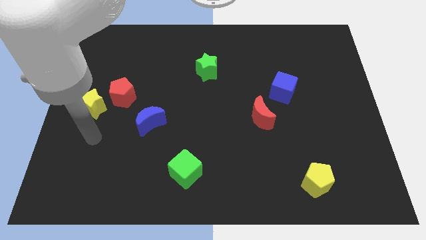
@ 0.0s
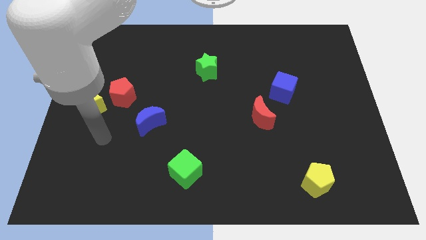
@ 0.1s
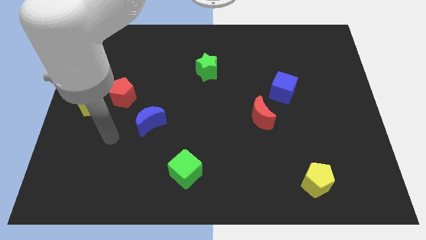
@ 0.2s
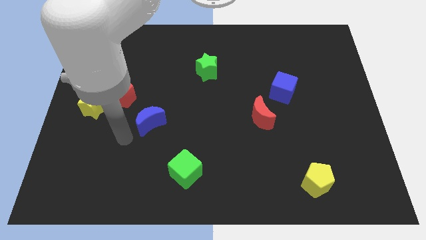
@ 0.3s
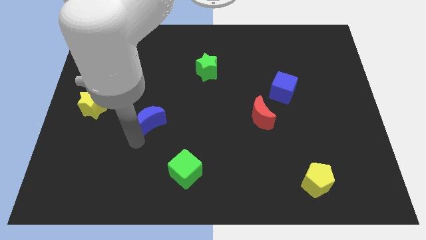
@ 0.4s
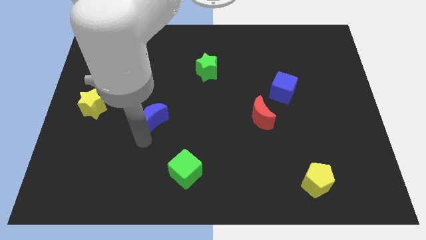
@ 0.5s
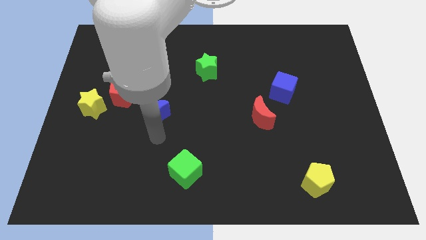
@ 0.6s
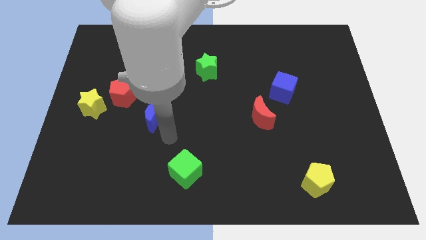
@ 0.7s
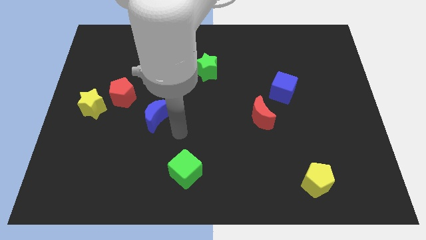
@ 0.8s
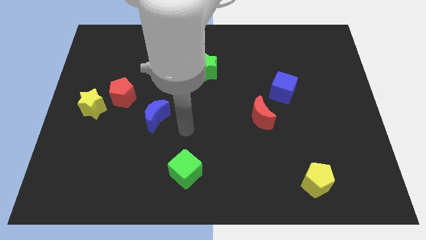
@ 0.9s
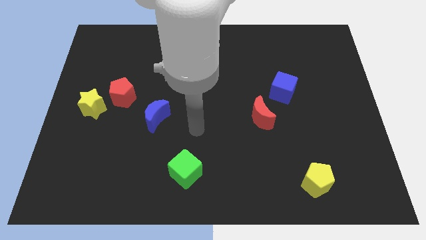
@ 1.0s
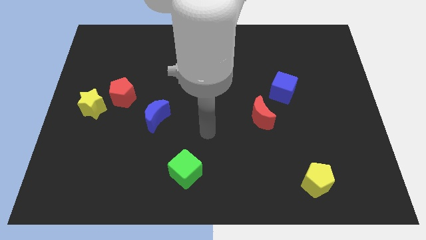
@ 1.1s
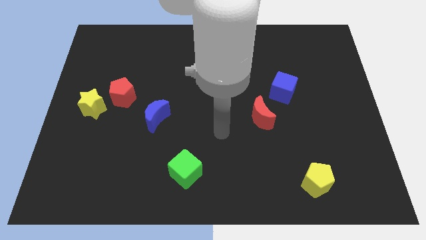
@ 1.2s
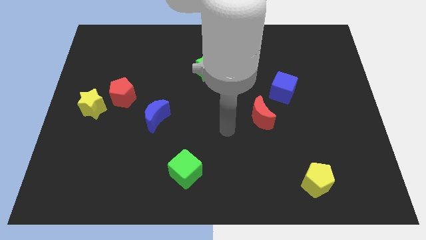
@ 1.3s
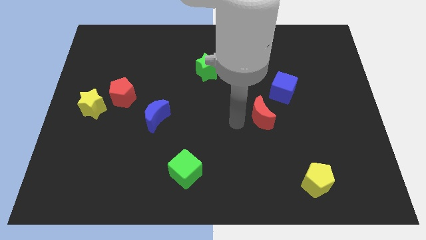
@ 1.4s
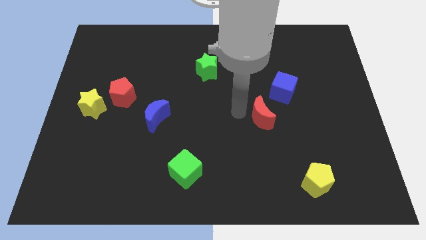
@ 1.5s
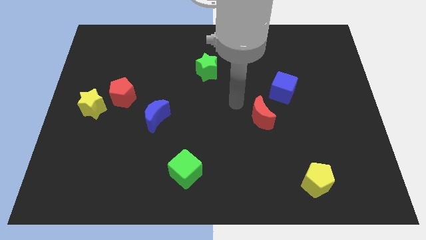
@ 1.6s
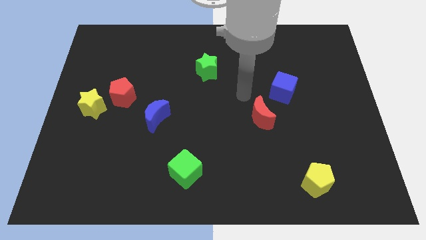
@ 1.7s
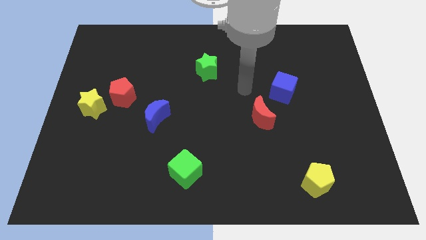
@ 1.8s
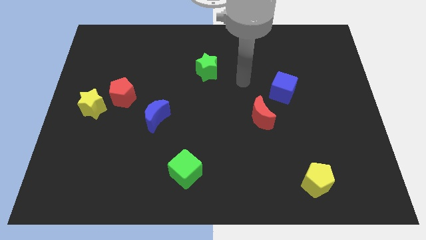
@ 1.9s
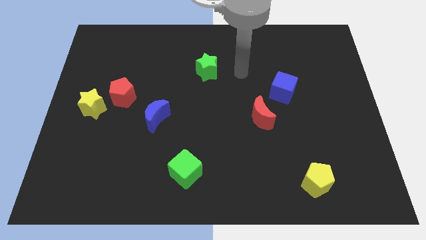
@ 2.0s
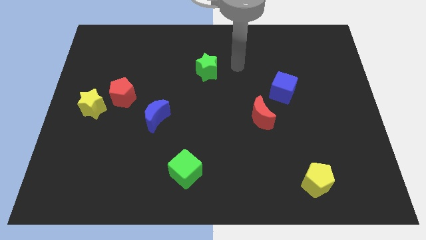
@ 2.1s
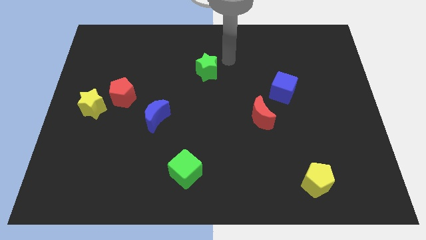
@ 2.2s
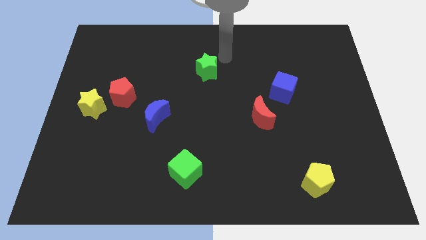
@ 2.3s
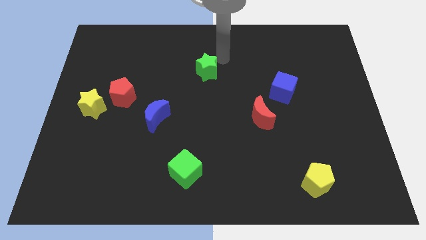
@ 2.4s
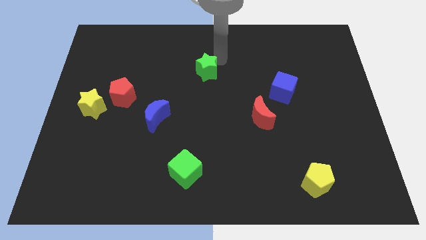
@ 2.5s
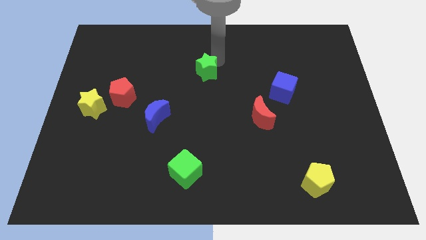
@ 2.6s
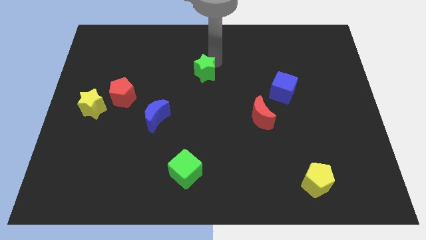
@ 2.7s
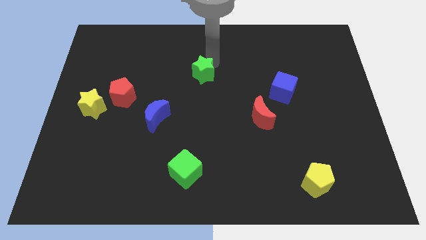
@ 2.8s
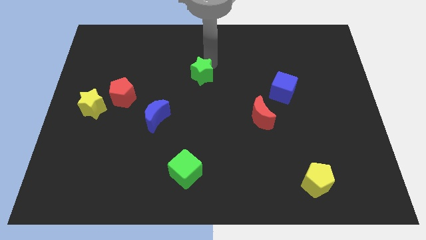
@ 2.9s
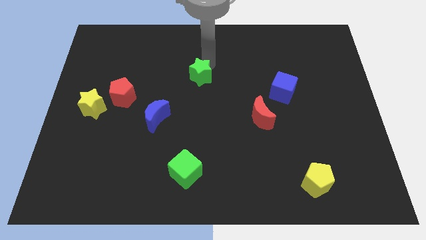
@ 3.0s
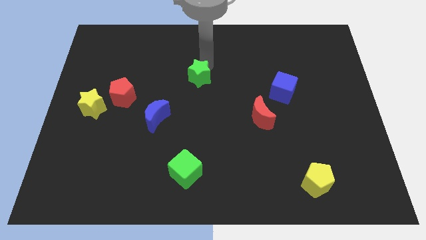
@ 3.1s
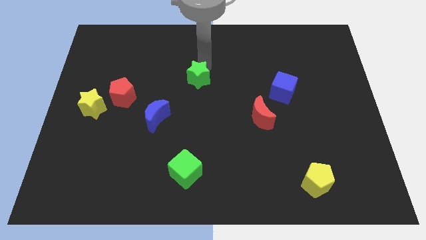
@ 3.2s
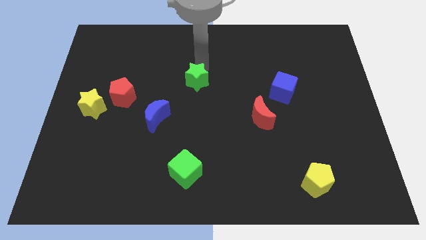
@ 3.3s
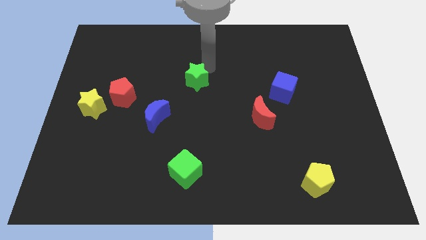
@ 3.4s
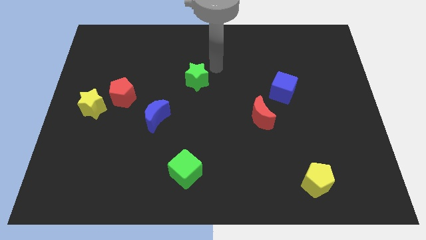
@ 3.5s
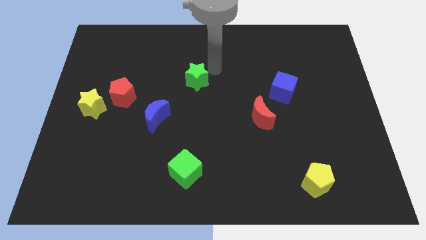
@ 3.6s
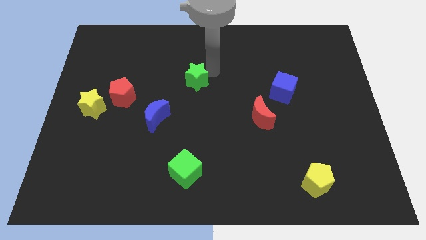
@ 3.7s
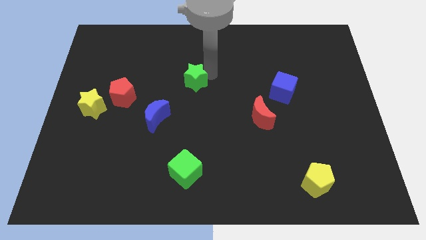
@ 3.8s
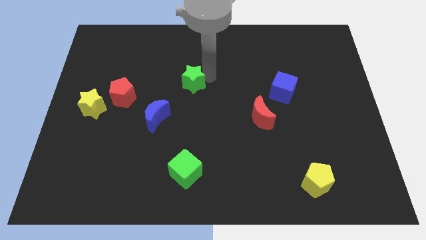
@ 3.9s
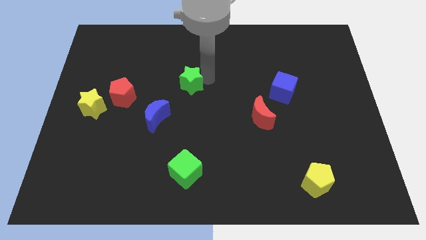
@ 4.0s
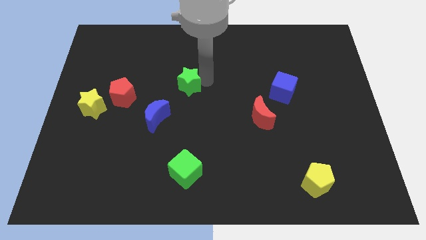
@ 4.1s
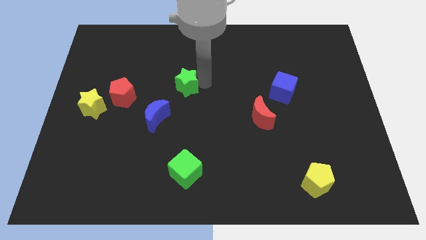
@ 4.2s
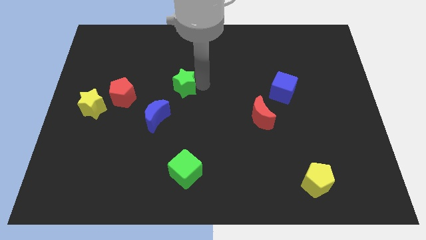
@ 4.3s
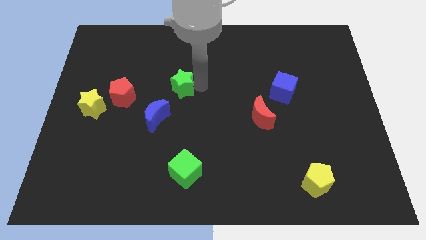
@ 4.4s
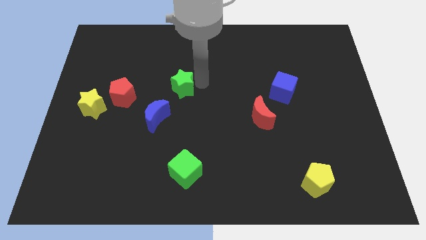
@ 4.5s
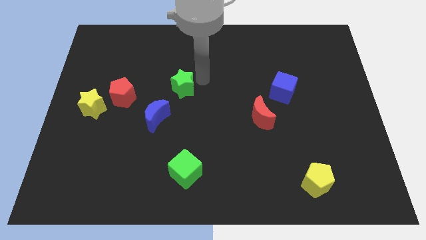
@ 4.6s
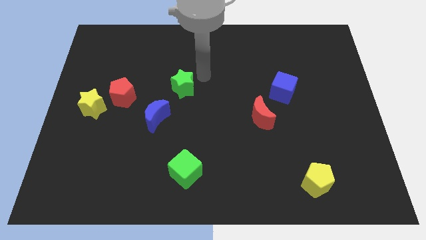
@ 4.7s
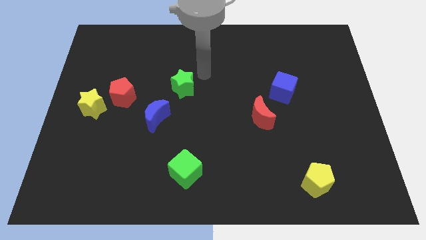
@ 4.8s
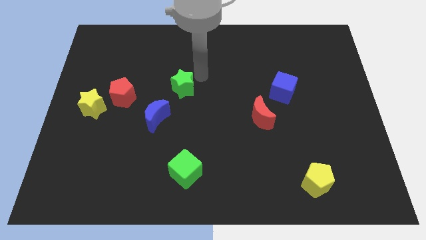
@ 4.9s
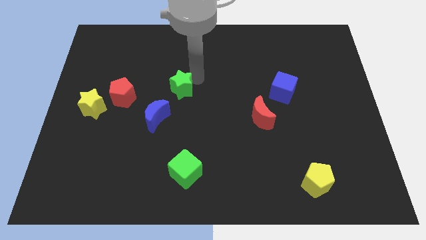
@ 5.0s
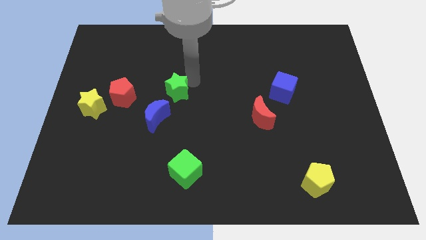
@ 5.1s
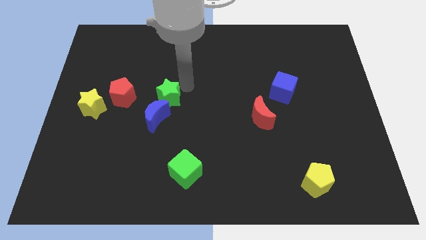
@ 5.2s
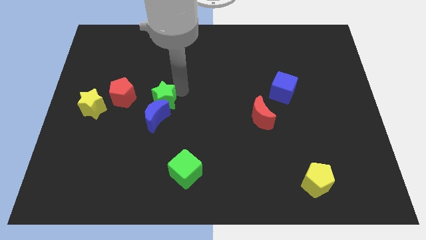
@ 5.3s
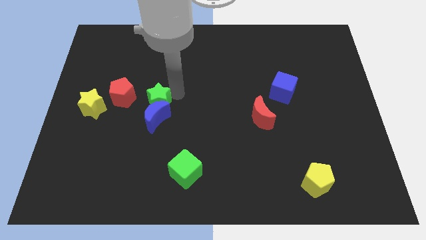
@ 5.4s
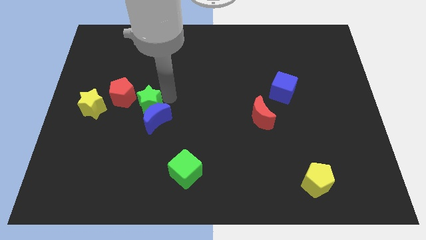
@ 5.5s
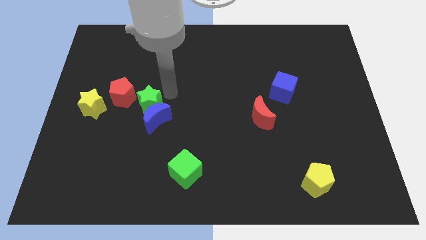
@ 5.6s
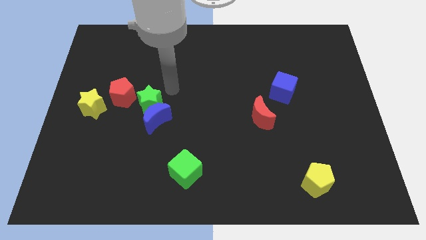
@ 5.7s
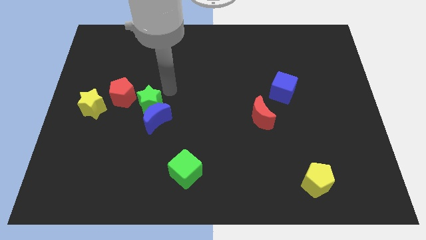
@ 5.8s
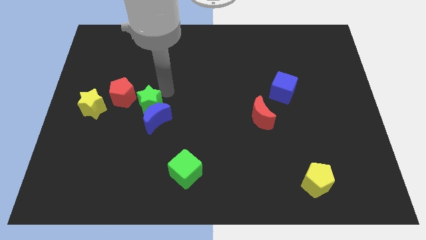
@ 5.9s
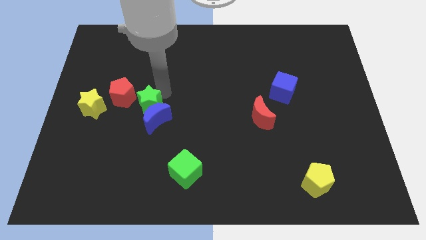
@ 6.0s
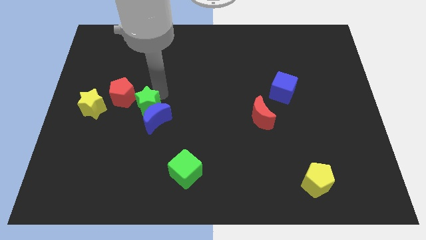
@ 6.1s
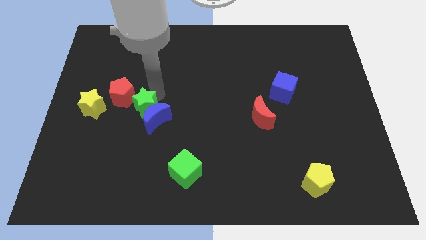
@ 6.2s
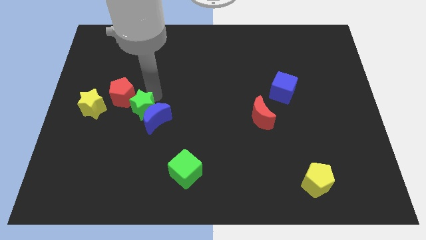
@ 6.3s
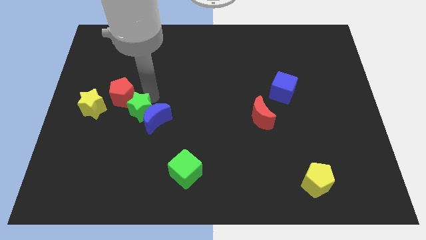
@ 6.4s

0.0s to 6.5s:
move the green star downwards and then left

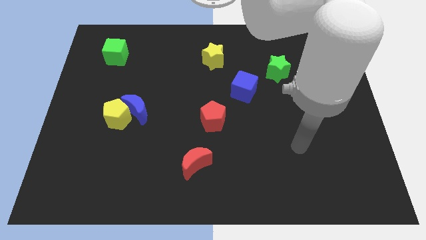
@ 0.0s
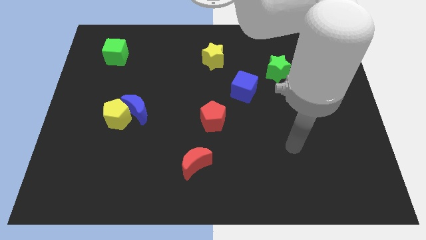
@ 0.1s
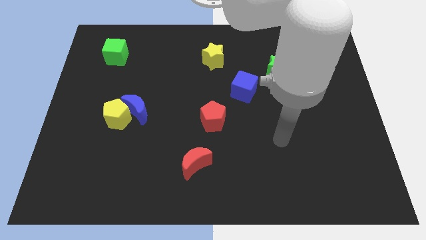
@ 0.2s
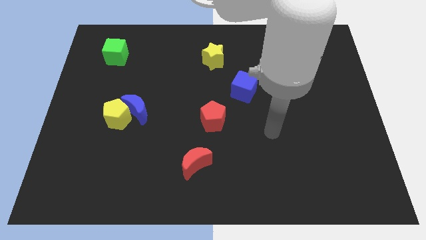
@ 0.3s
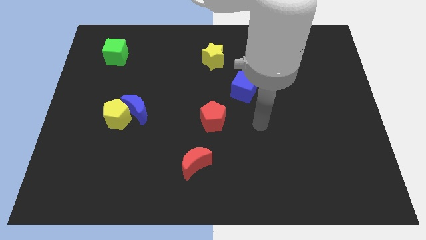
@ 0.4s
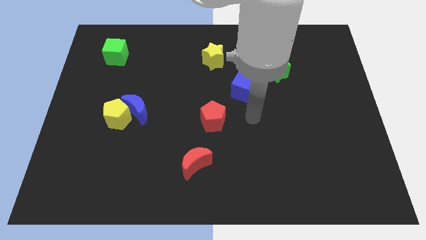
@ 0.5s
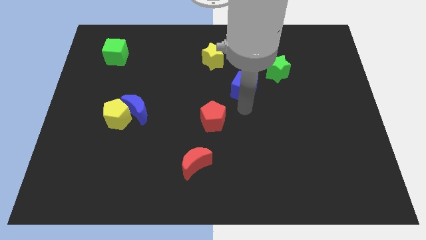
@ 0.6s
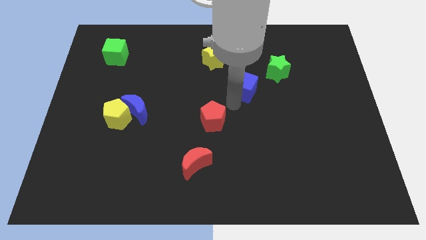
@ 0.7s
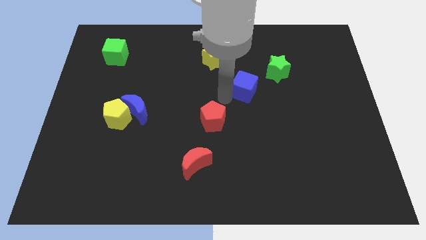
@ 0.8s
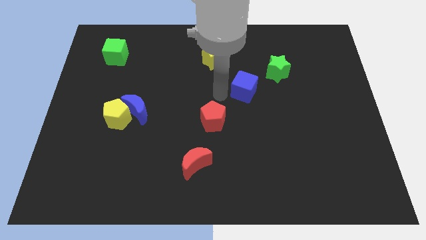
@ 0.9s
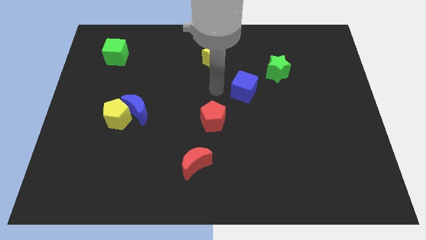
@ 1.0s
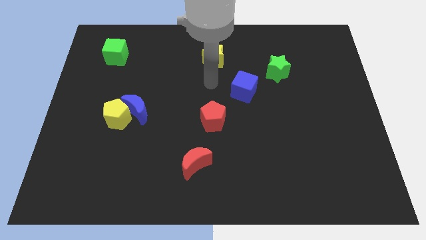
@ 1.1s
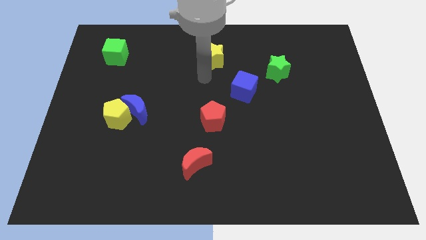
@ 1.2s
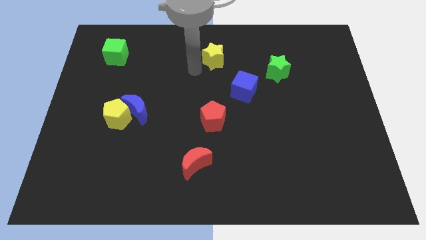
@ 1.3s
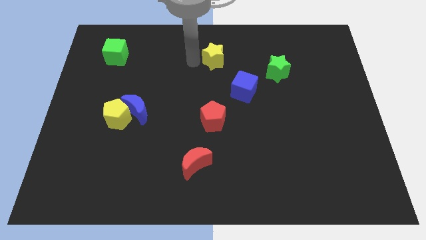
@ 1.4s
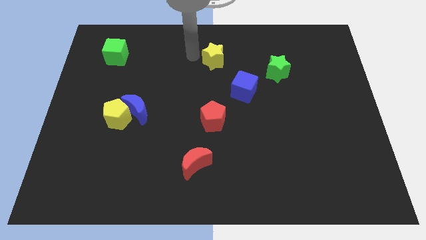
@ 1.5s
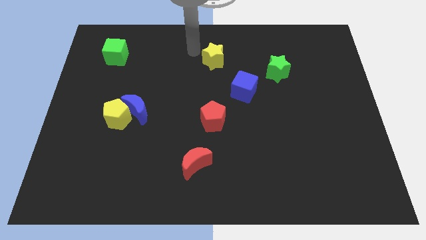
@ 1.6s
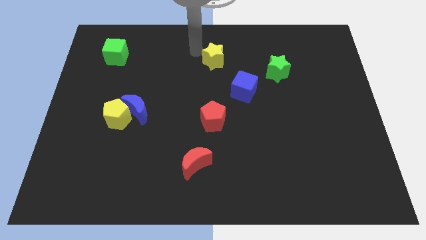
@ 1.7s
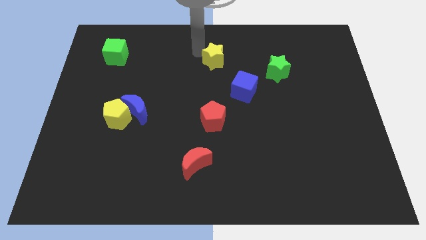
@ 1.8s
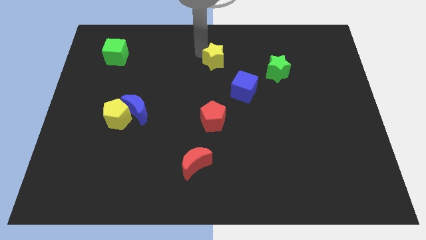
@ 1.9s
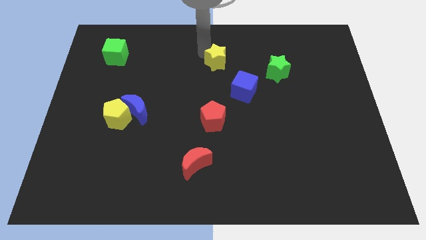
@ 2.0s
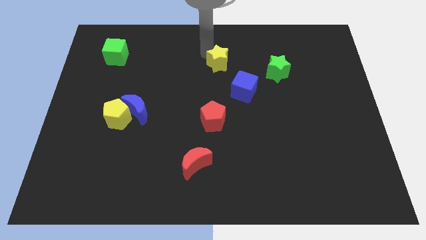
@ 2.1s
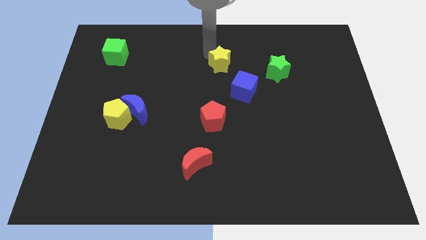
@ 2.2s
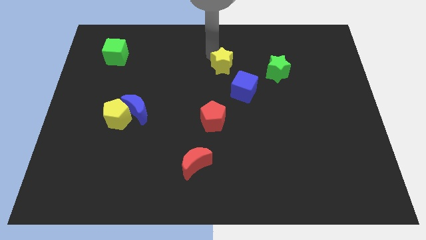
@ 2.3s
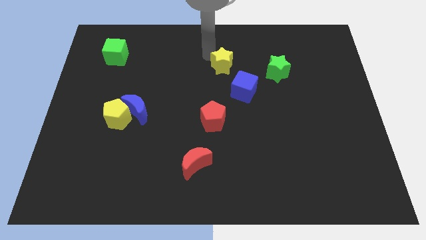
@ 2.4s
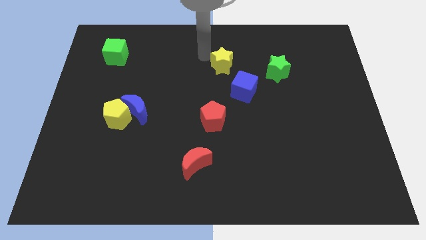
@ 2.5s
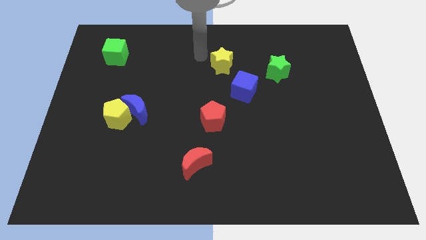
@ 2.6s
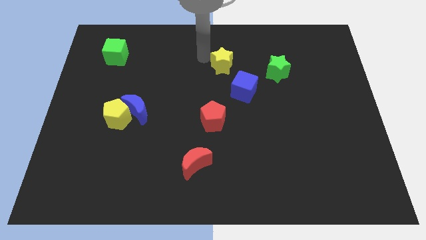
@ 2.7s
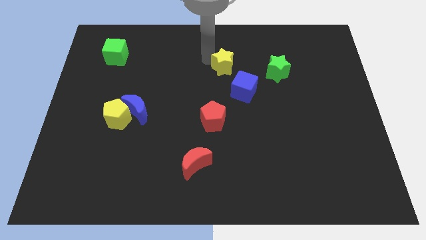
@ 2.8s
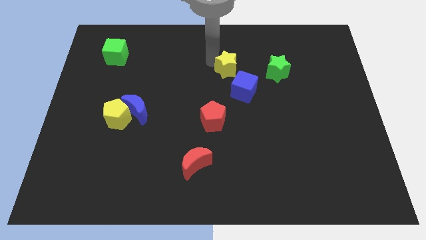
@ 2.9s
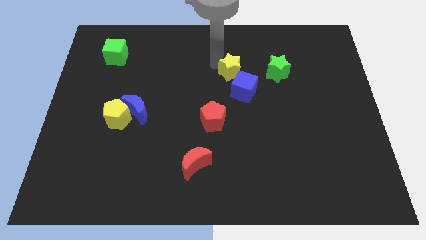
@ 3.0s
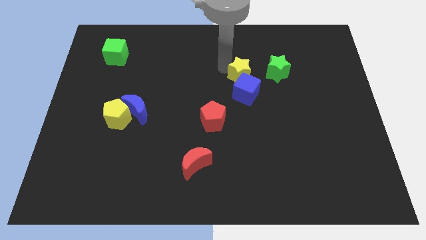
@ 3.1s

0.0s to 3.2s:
push the yellow star a little bit downwards and to the right diagonally
